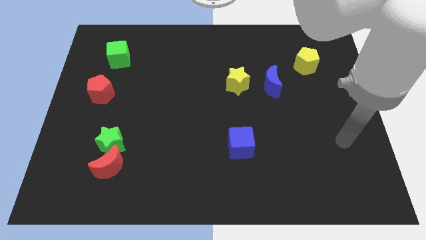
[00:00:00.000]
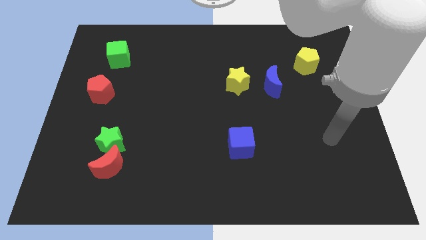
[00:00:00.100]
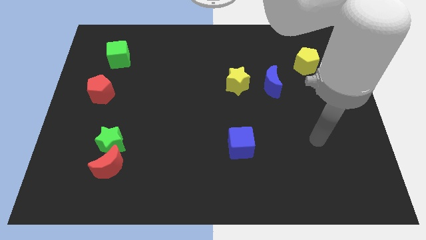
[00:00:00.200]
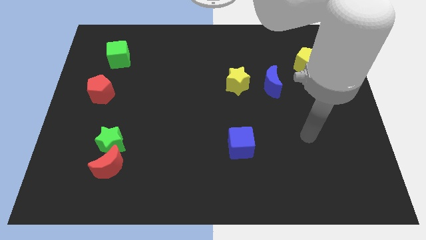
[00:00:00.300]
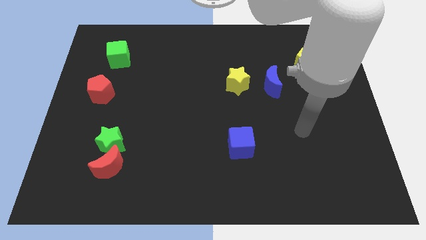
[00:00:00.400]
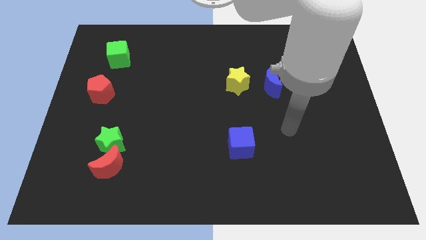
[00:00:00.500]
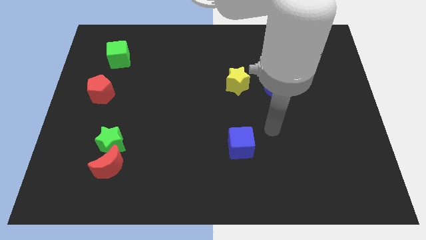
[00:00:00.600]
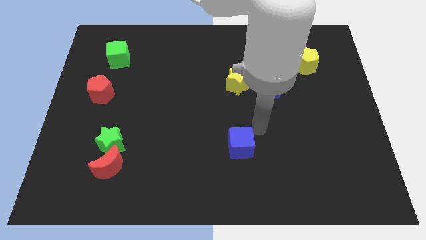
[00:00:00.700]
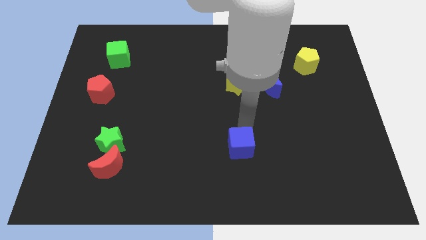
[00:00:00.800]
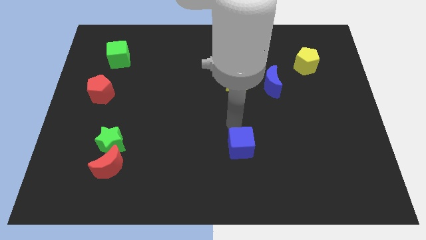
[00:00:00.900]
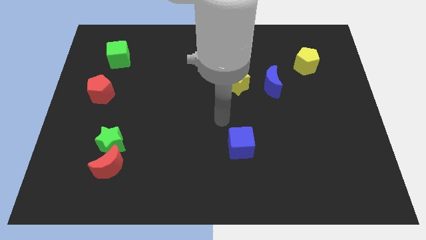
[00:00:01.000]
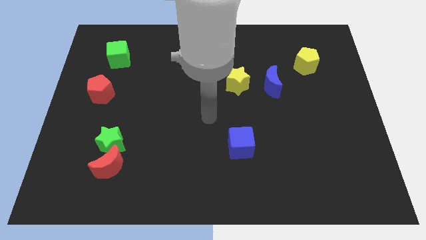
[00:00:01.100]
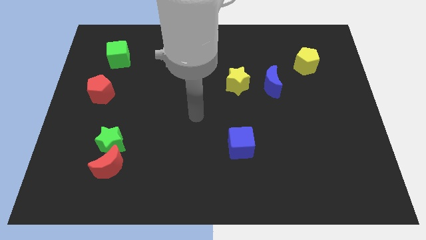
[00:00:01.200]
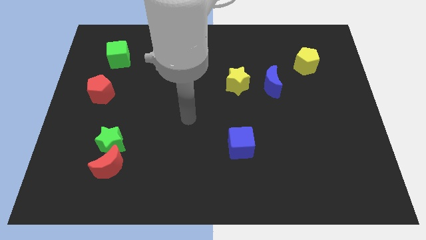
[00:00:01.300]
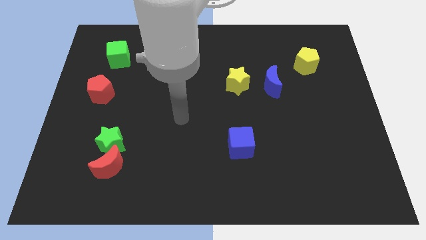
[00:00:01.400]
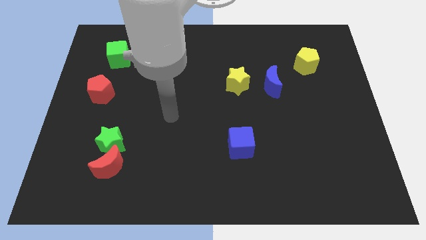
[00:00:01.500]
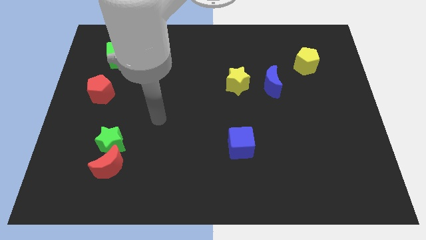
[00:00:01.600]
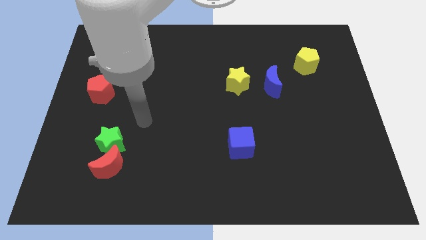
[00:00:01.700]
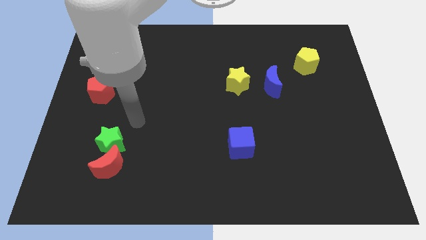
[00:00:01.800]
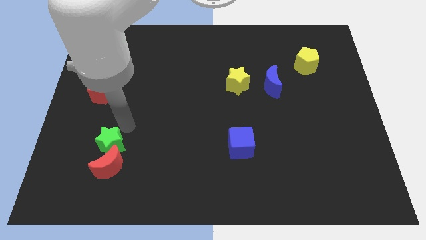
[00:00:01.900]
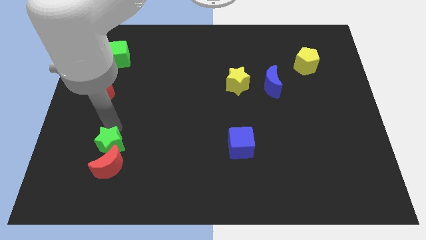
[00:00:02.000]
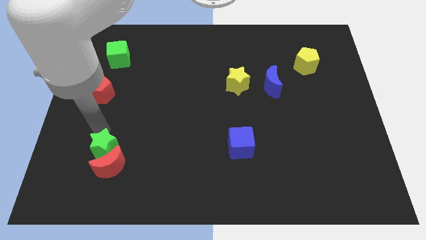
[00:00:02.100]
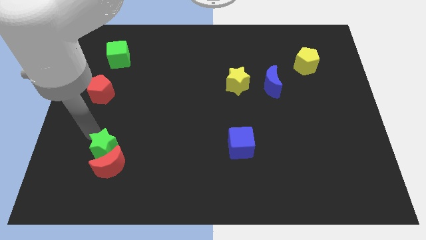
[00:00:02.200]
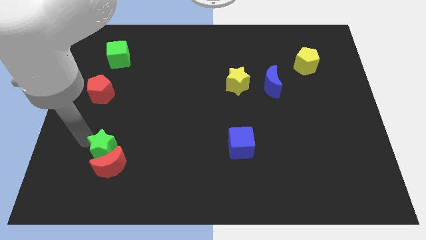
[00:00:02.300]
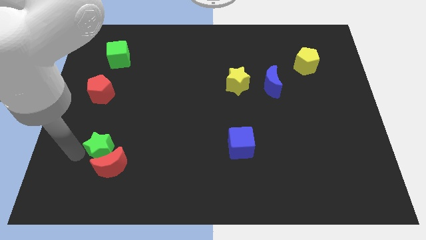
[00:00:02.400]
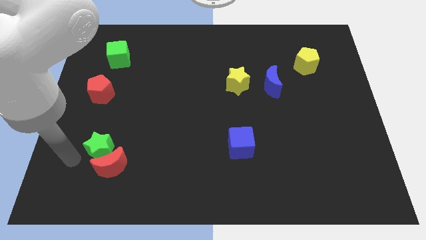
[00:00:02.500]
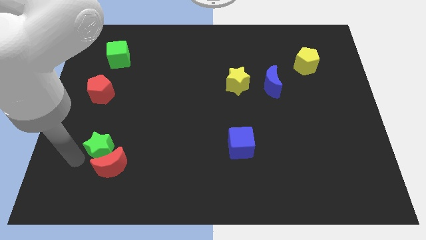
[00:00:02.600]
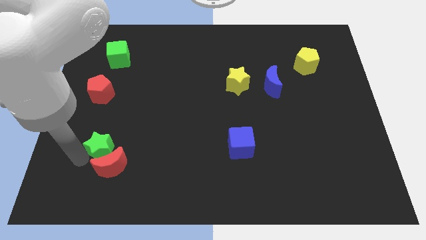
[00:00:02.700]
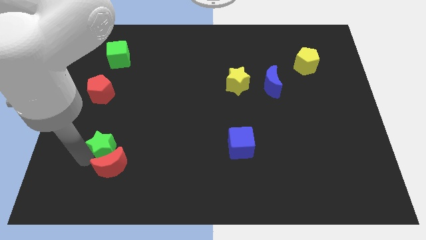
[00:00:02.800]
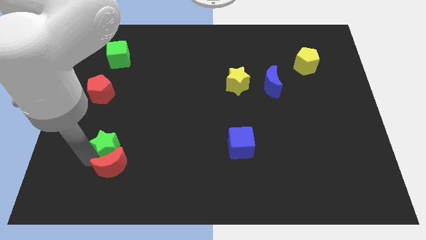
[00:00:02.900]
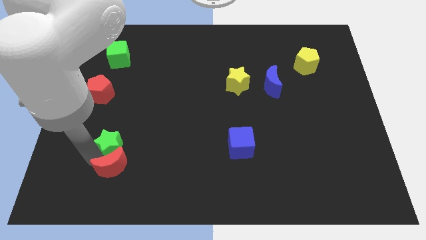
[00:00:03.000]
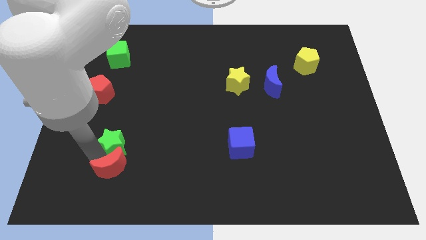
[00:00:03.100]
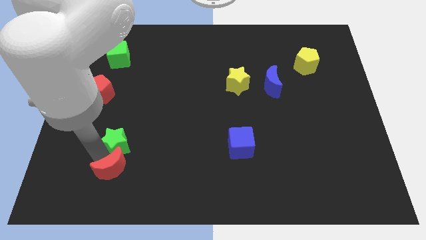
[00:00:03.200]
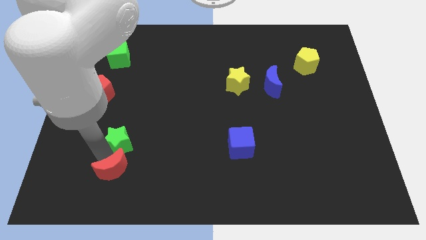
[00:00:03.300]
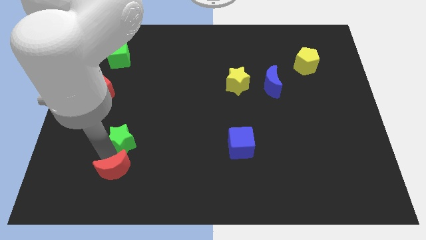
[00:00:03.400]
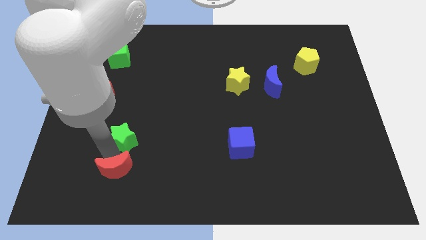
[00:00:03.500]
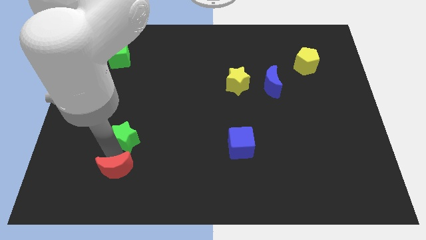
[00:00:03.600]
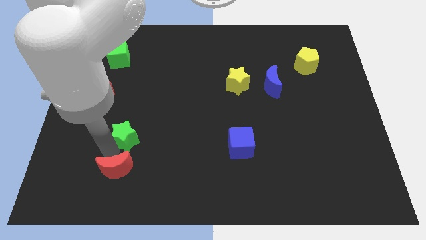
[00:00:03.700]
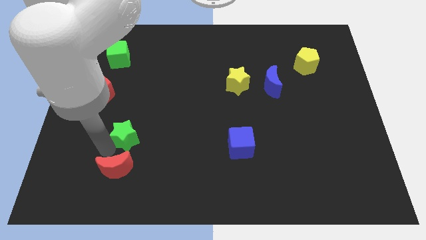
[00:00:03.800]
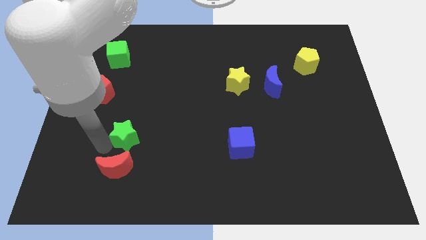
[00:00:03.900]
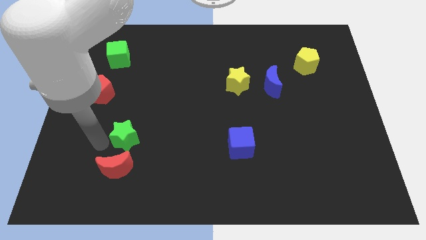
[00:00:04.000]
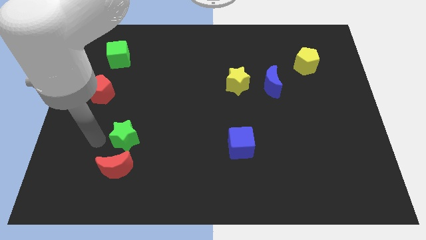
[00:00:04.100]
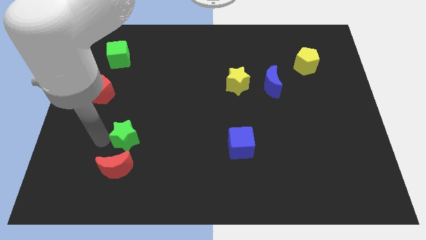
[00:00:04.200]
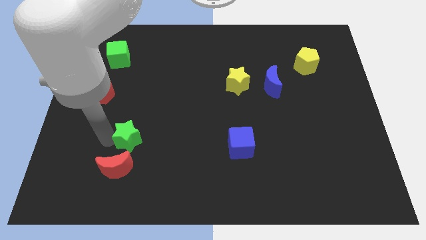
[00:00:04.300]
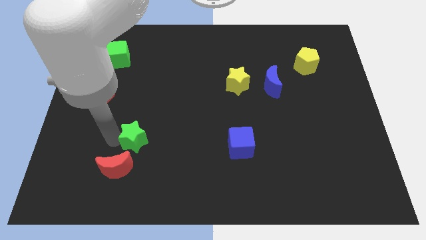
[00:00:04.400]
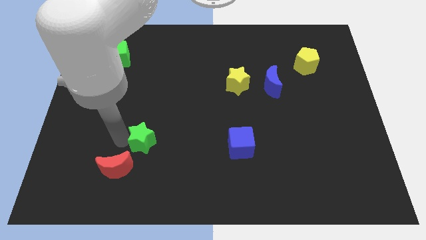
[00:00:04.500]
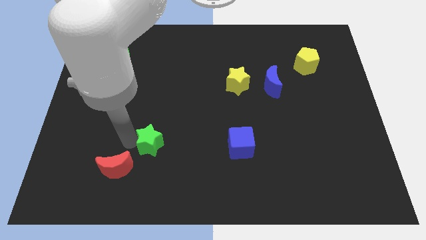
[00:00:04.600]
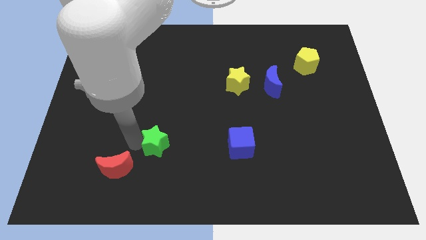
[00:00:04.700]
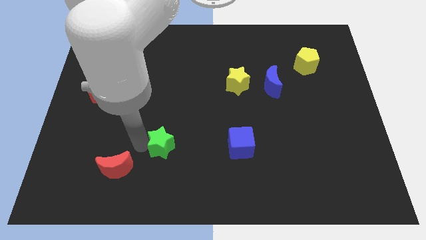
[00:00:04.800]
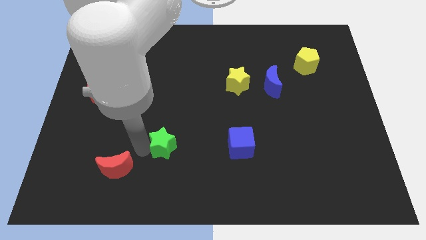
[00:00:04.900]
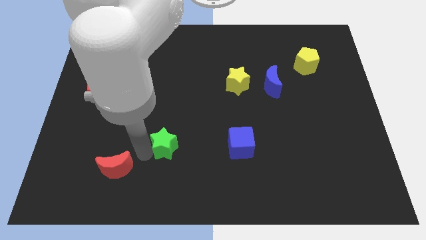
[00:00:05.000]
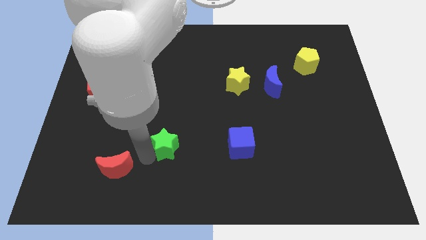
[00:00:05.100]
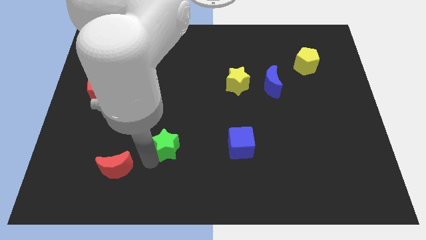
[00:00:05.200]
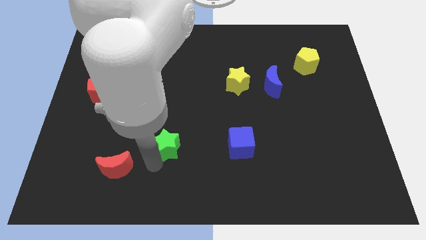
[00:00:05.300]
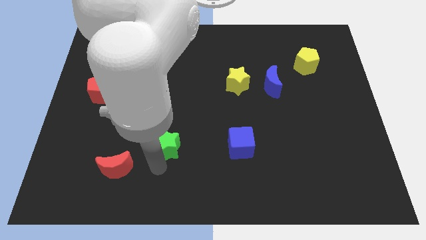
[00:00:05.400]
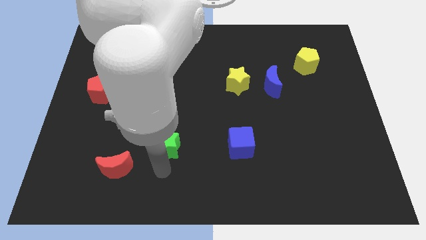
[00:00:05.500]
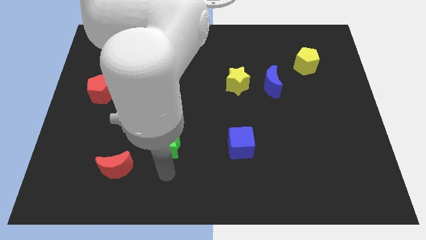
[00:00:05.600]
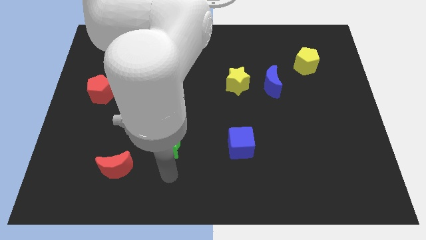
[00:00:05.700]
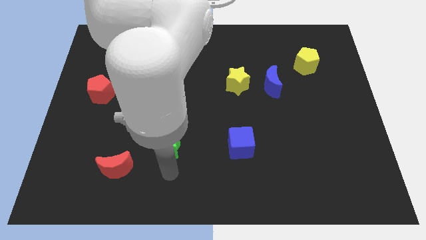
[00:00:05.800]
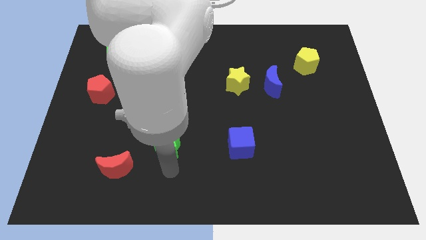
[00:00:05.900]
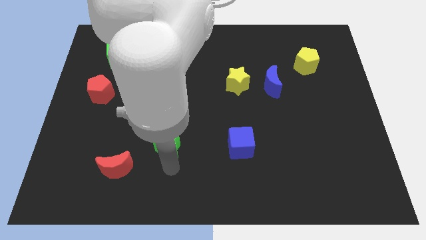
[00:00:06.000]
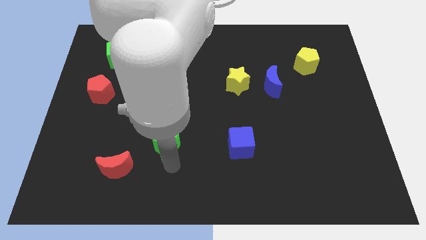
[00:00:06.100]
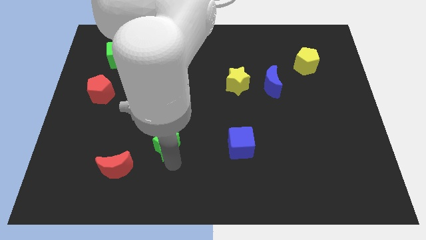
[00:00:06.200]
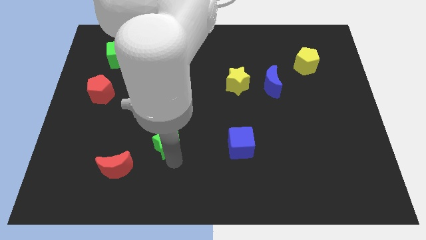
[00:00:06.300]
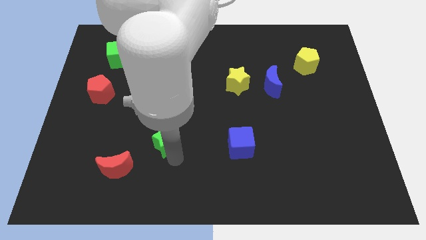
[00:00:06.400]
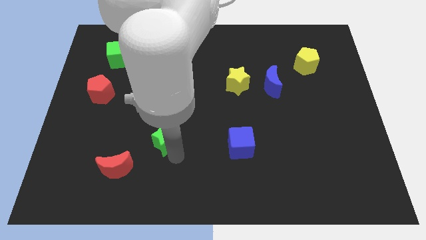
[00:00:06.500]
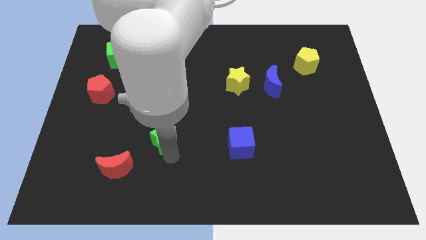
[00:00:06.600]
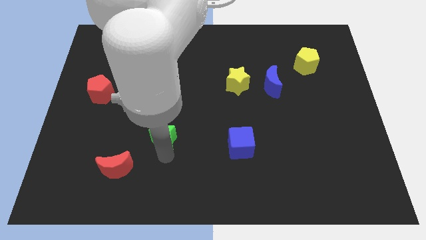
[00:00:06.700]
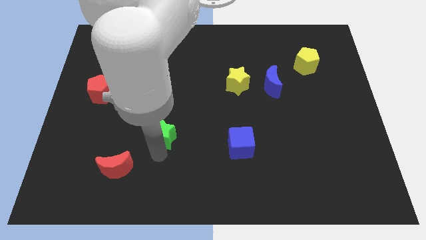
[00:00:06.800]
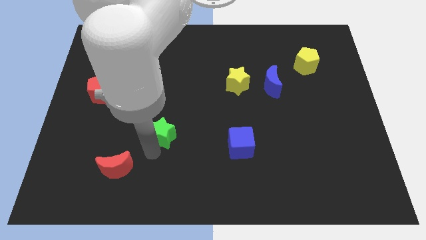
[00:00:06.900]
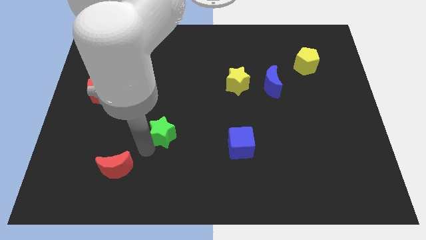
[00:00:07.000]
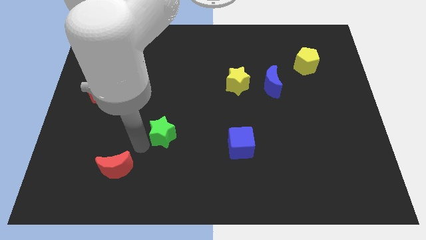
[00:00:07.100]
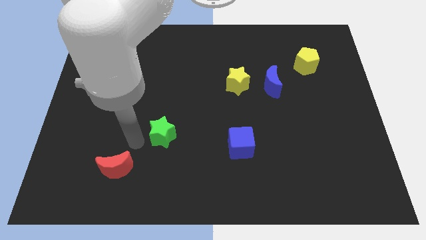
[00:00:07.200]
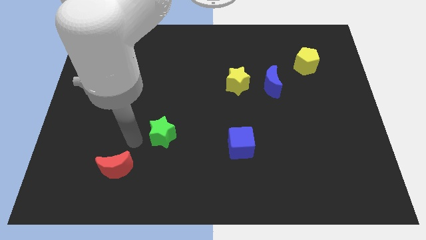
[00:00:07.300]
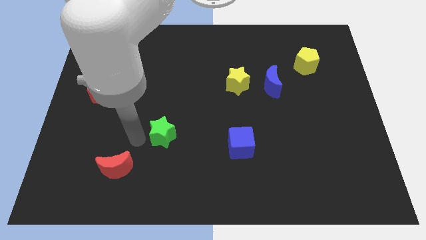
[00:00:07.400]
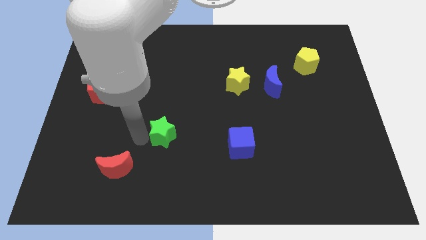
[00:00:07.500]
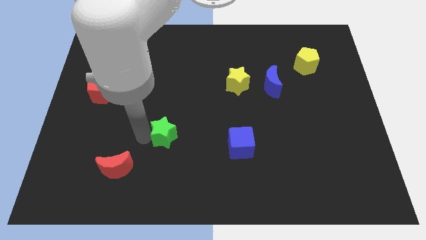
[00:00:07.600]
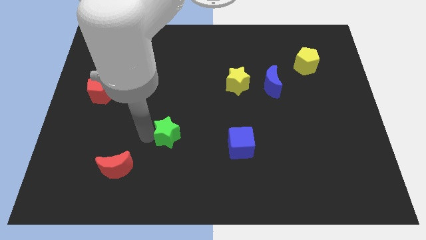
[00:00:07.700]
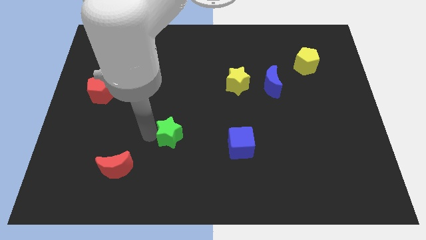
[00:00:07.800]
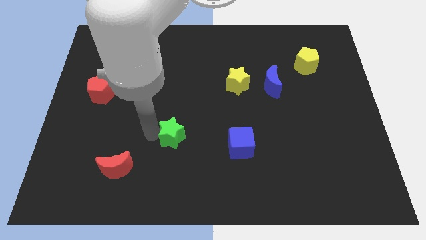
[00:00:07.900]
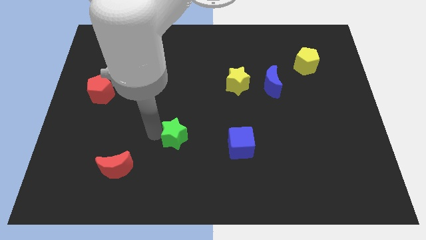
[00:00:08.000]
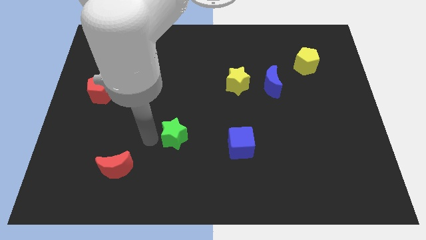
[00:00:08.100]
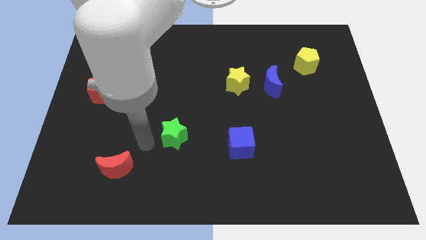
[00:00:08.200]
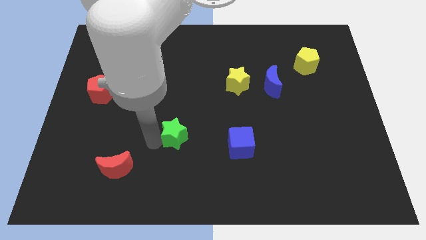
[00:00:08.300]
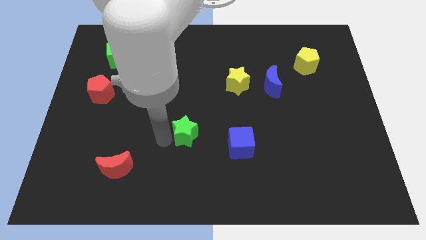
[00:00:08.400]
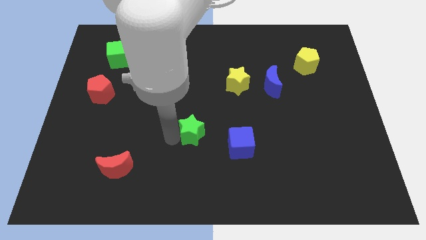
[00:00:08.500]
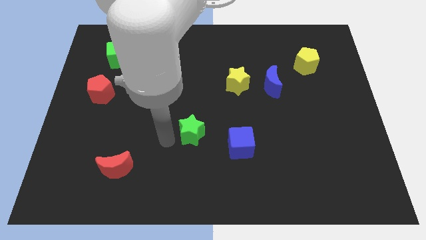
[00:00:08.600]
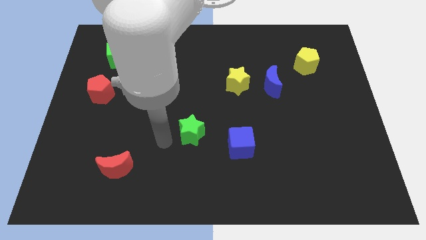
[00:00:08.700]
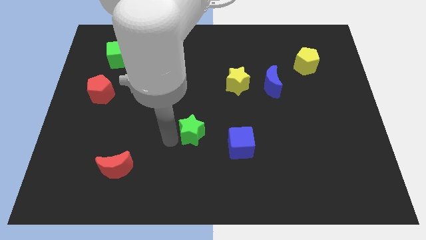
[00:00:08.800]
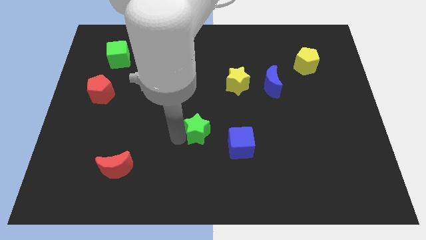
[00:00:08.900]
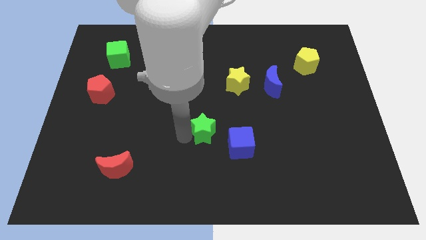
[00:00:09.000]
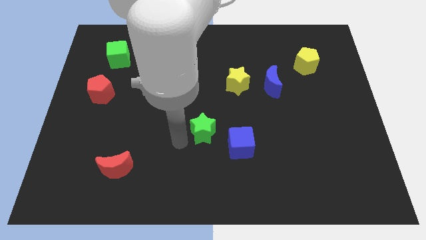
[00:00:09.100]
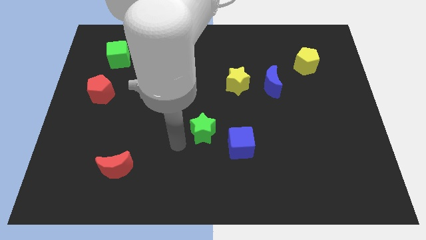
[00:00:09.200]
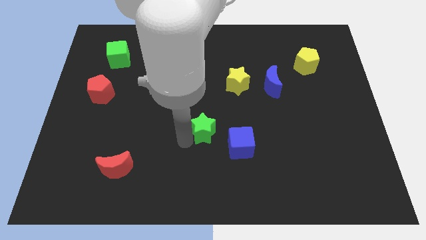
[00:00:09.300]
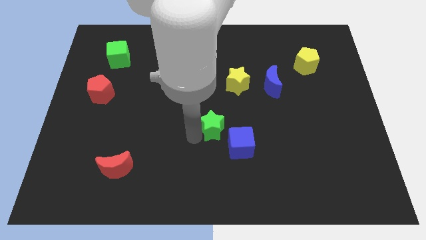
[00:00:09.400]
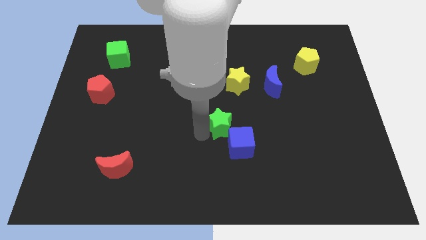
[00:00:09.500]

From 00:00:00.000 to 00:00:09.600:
move the green star to the bottom of the yellow star
